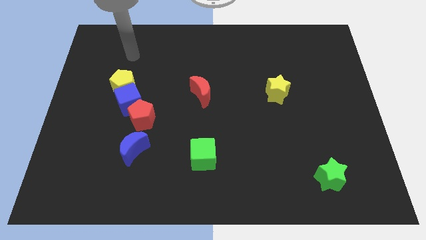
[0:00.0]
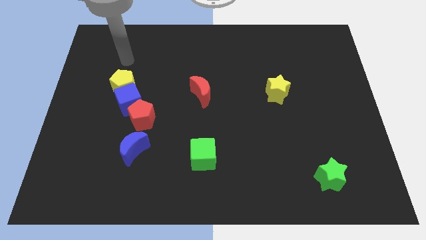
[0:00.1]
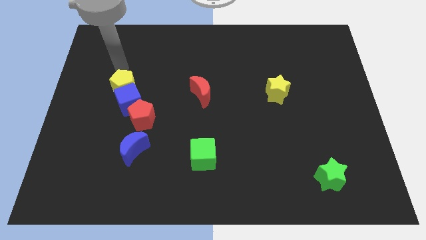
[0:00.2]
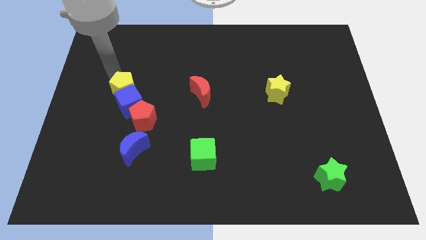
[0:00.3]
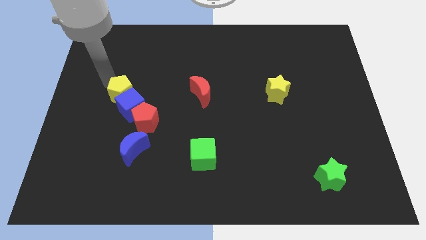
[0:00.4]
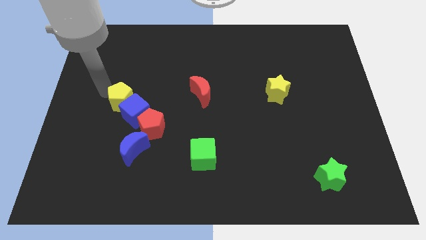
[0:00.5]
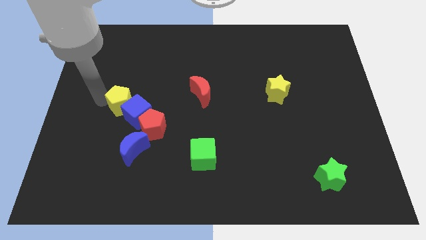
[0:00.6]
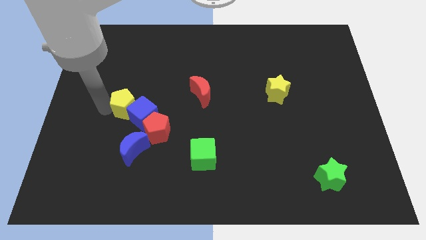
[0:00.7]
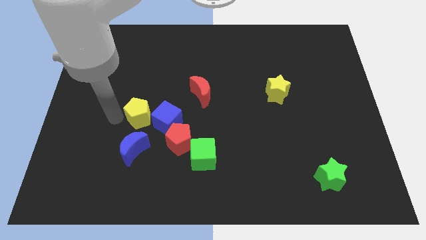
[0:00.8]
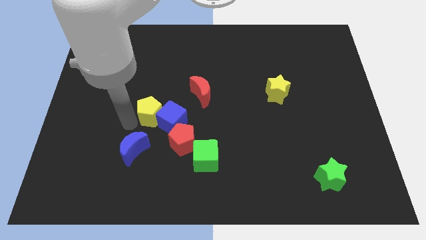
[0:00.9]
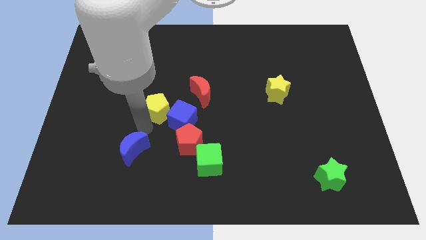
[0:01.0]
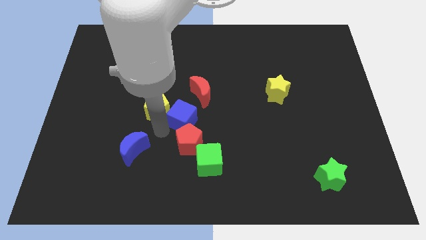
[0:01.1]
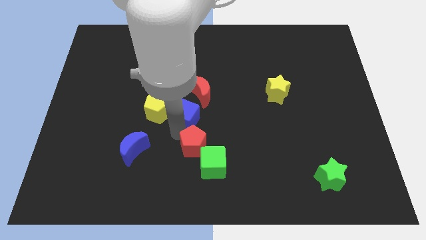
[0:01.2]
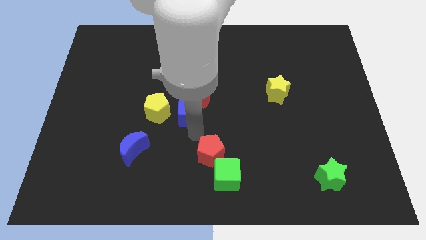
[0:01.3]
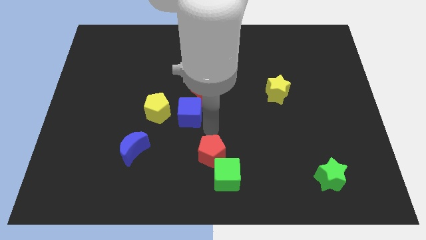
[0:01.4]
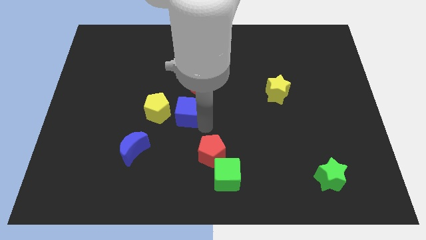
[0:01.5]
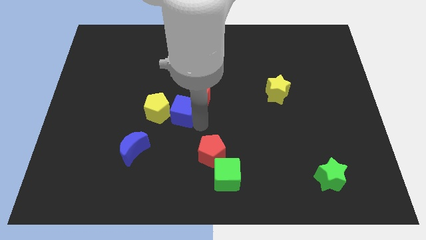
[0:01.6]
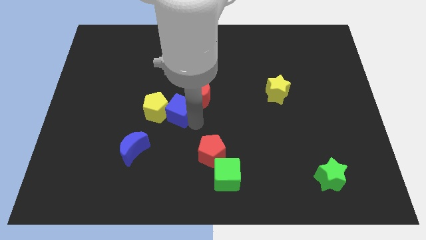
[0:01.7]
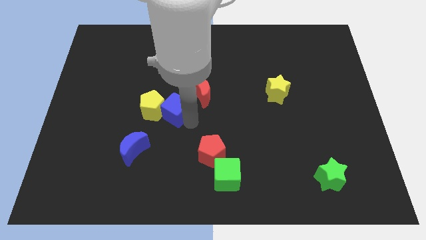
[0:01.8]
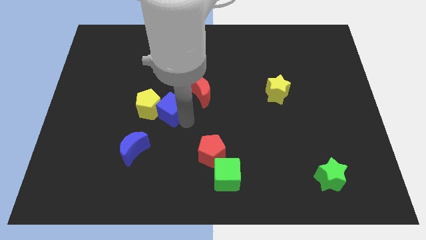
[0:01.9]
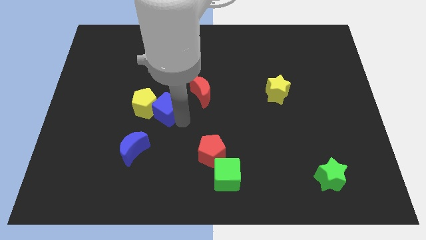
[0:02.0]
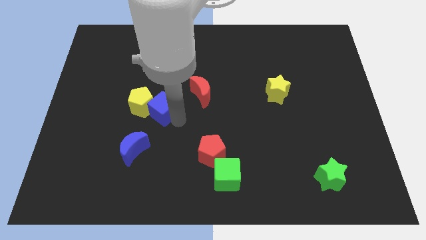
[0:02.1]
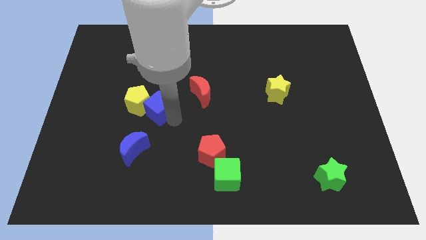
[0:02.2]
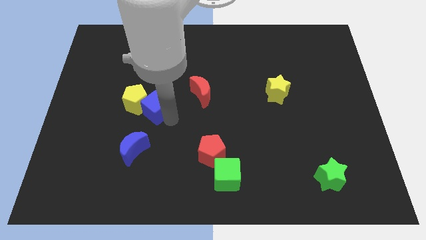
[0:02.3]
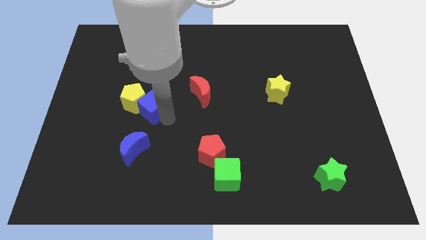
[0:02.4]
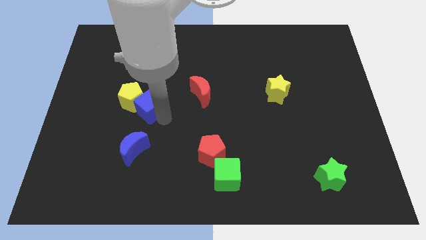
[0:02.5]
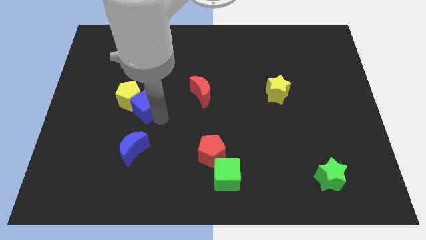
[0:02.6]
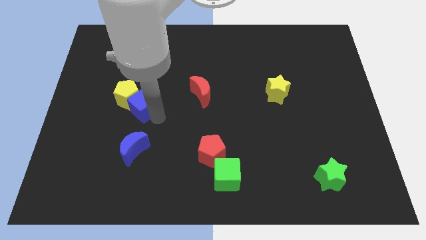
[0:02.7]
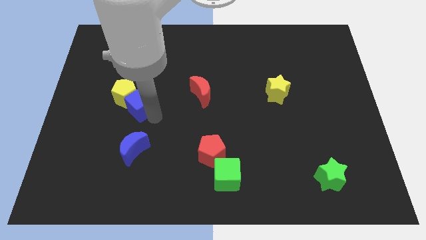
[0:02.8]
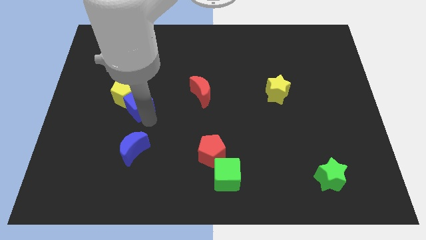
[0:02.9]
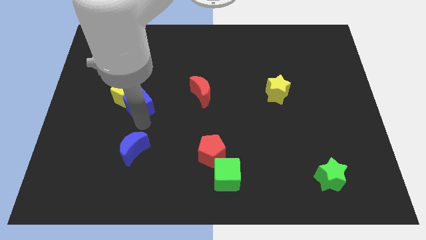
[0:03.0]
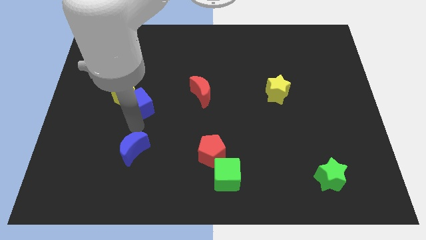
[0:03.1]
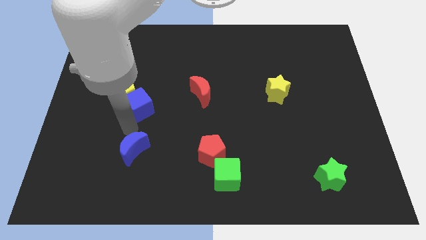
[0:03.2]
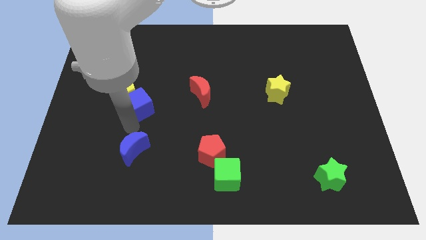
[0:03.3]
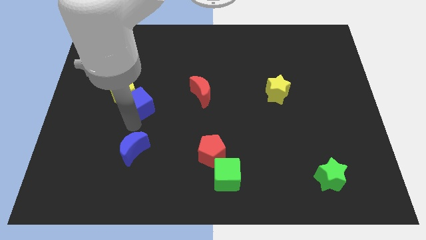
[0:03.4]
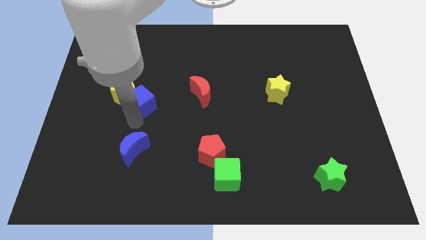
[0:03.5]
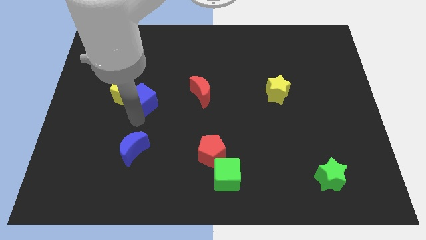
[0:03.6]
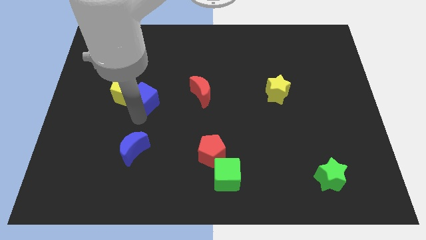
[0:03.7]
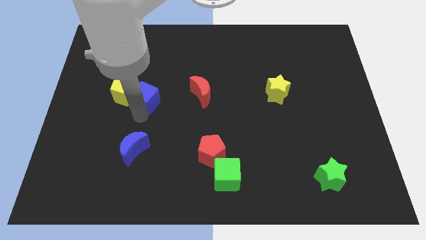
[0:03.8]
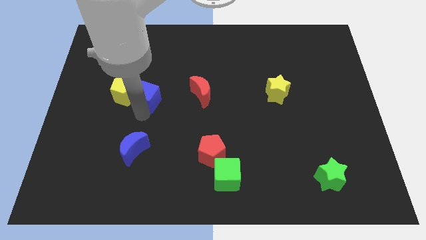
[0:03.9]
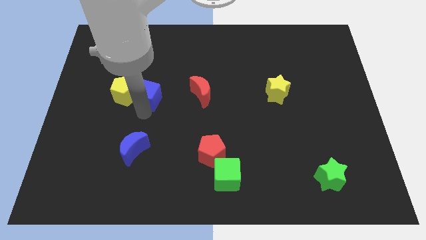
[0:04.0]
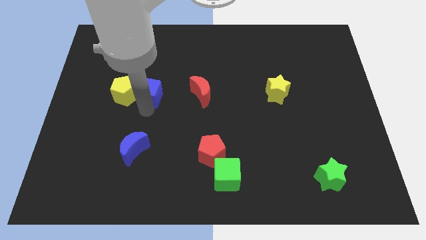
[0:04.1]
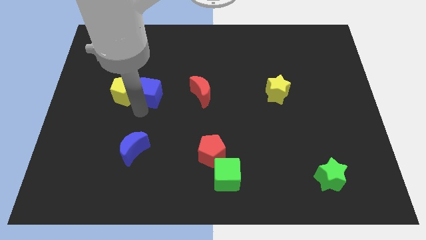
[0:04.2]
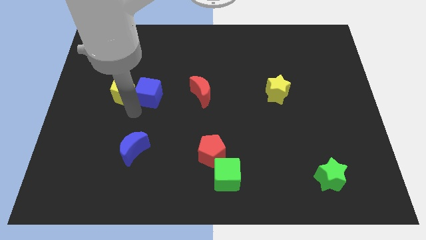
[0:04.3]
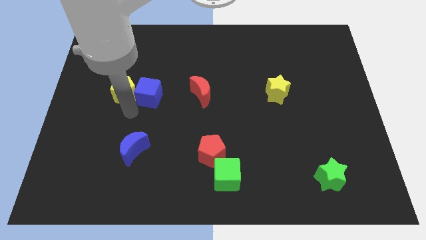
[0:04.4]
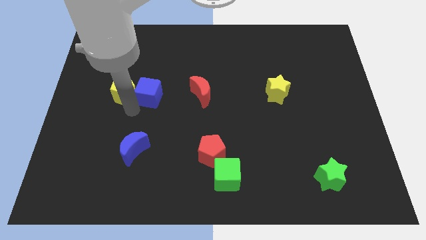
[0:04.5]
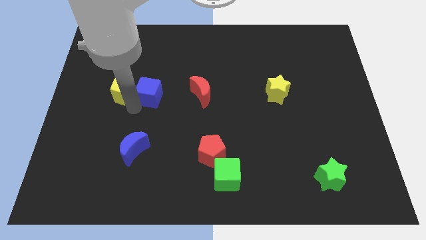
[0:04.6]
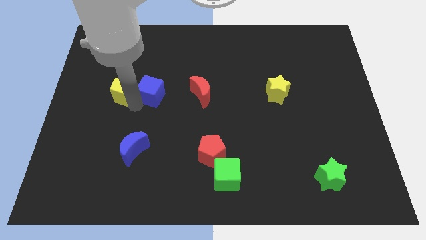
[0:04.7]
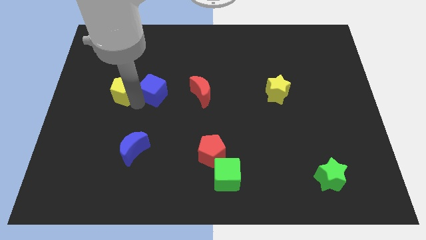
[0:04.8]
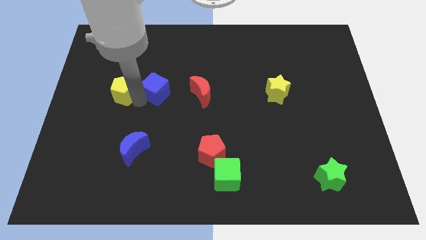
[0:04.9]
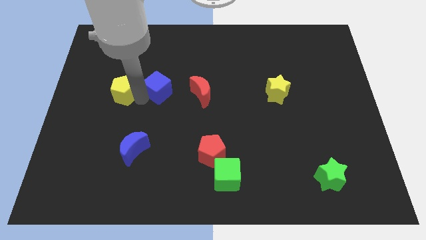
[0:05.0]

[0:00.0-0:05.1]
slightly move the blue cube up and right diagonally

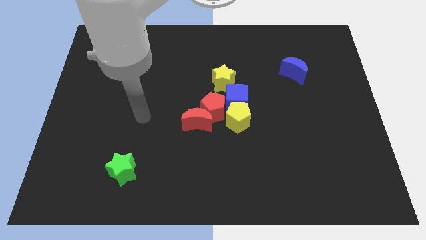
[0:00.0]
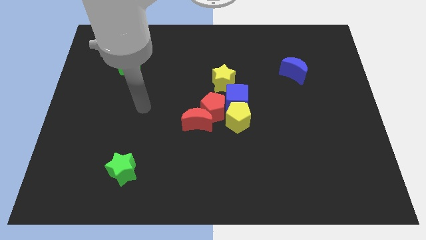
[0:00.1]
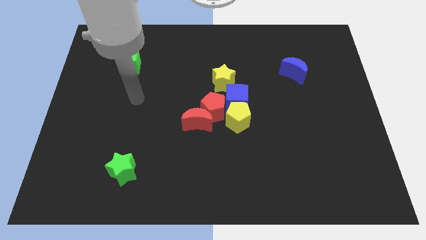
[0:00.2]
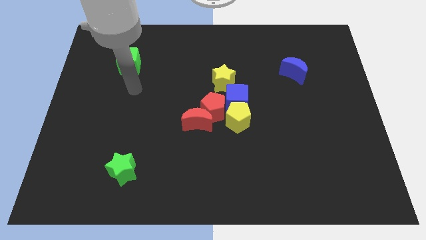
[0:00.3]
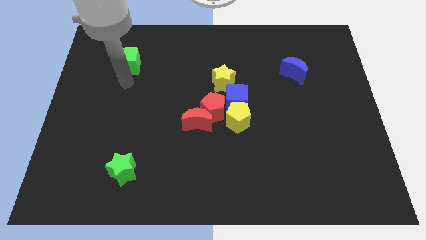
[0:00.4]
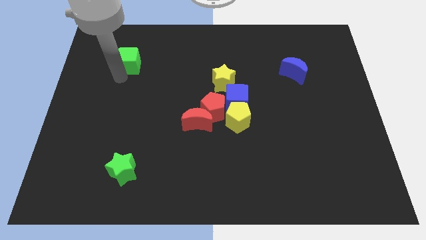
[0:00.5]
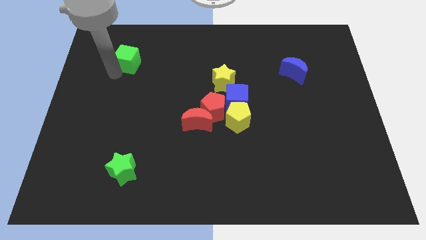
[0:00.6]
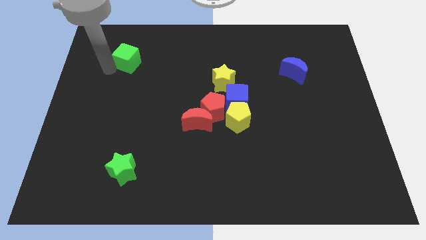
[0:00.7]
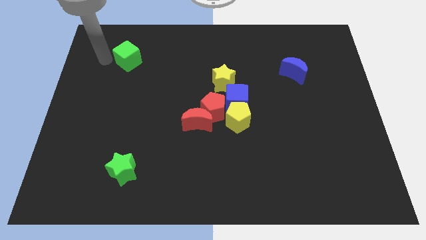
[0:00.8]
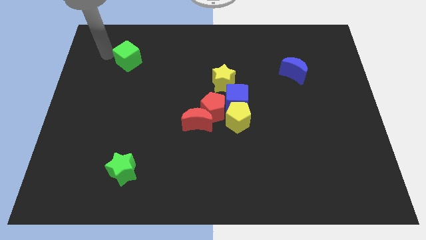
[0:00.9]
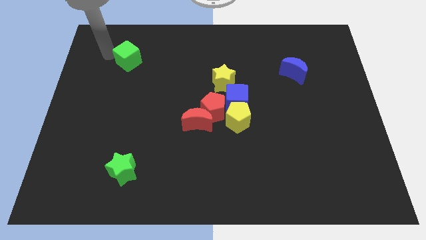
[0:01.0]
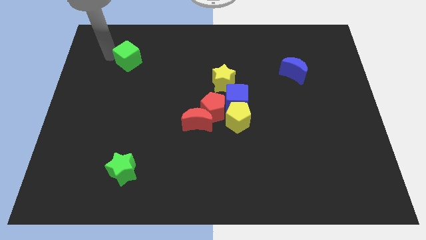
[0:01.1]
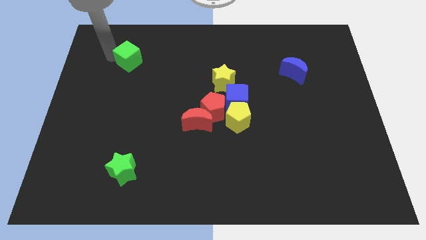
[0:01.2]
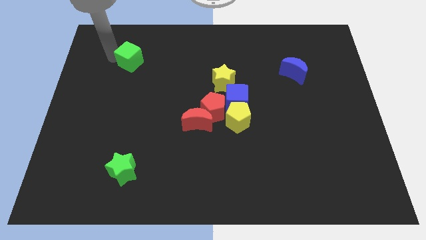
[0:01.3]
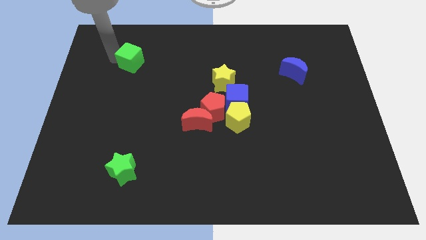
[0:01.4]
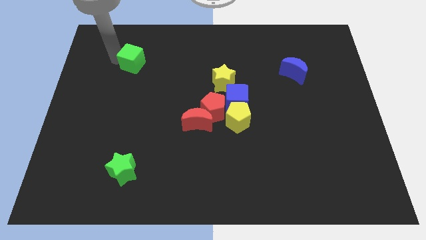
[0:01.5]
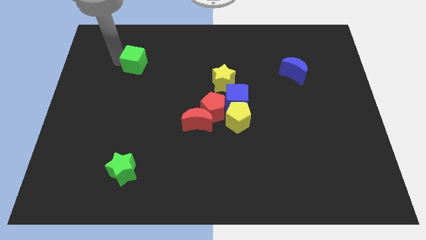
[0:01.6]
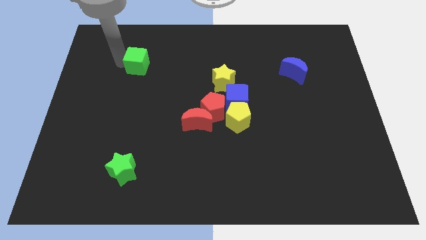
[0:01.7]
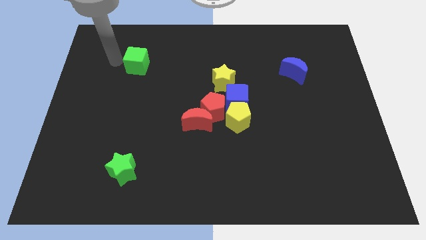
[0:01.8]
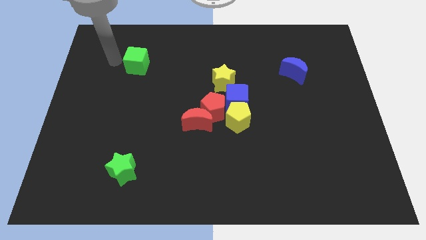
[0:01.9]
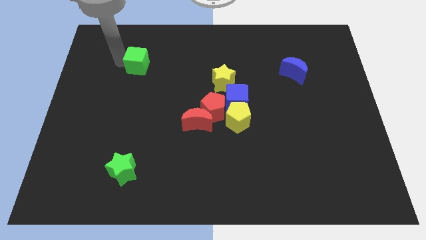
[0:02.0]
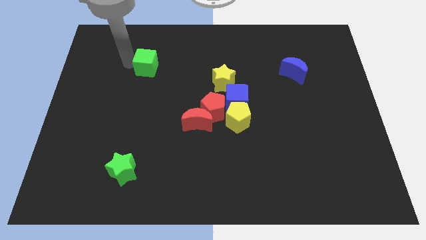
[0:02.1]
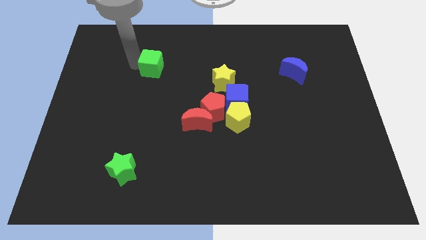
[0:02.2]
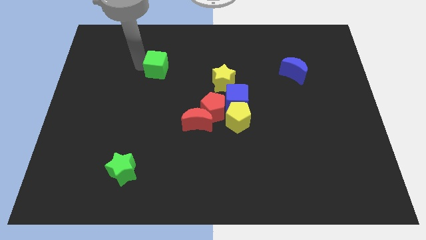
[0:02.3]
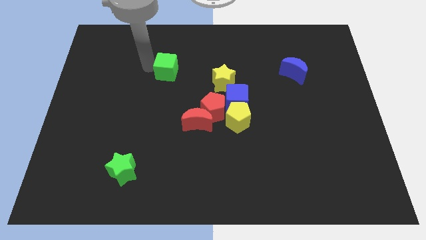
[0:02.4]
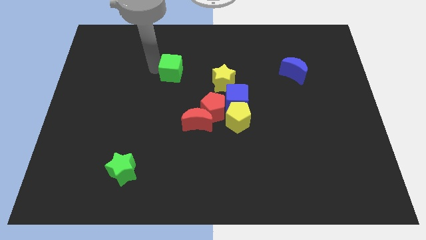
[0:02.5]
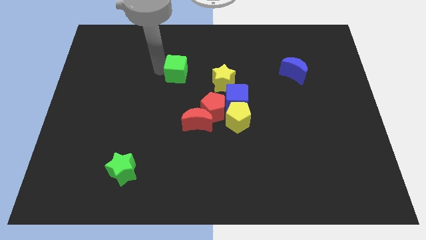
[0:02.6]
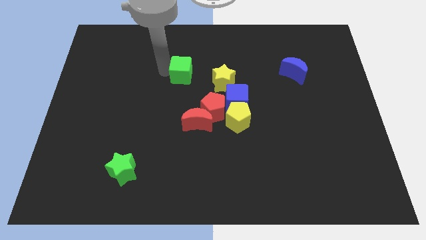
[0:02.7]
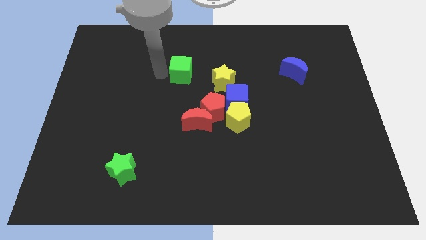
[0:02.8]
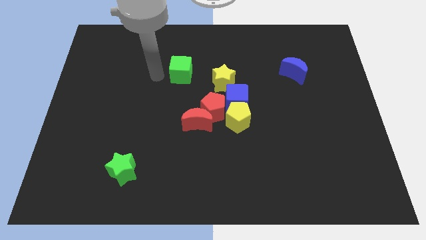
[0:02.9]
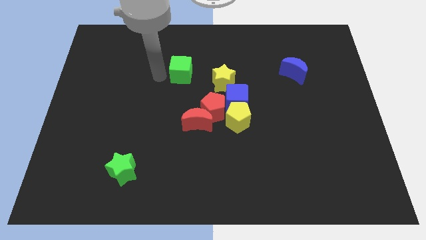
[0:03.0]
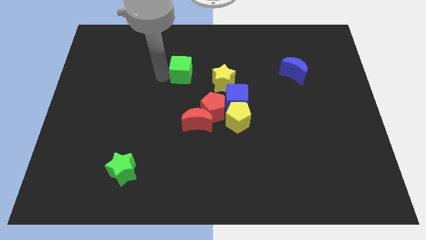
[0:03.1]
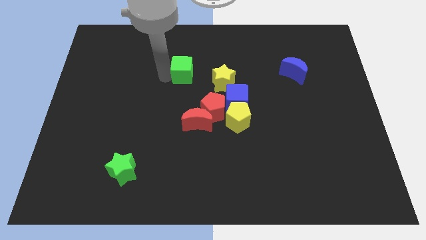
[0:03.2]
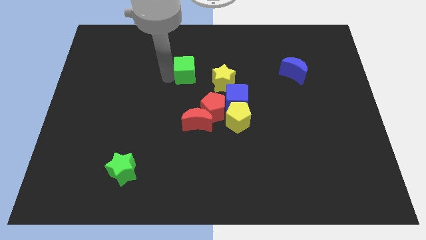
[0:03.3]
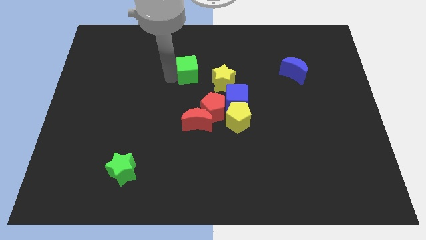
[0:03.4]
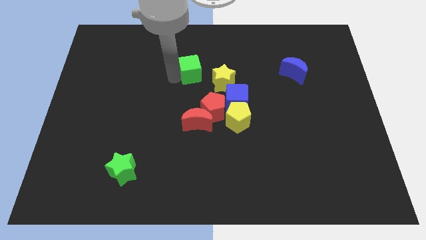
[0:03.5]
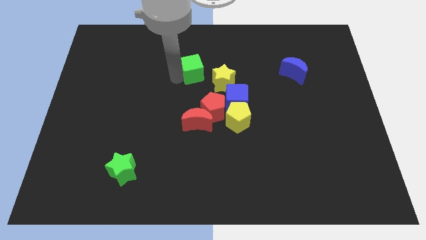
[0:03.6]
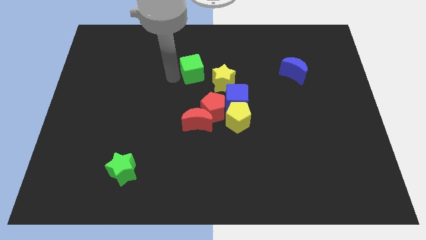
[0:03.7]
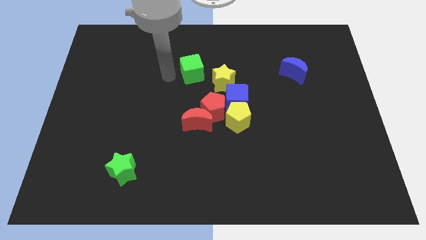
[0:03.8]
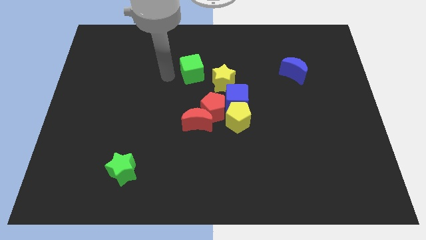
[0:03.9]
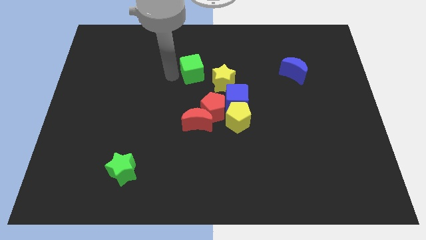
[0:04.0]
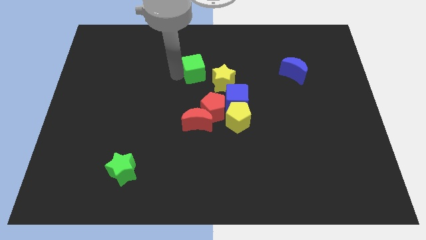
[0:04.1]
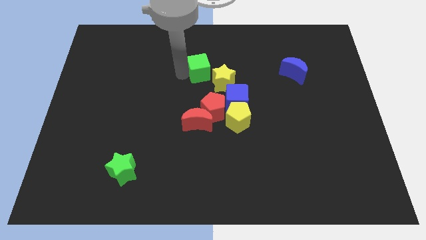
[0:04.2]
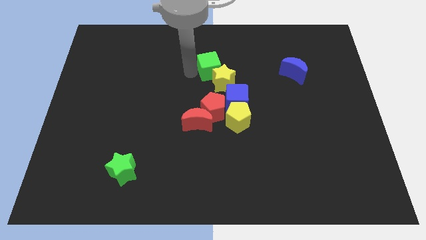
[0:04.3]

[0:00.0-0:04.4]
move the green cube right
